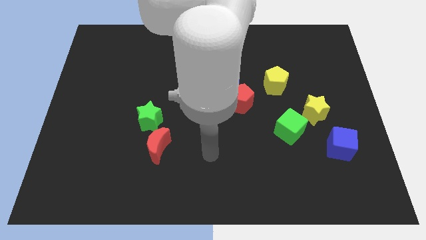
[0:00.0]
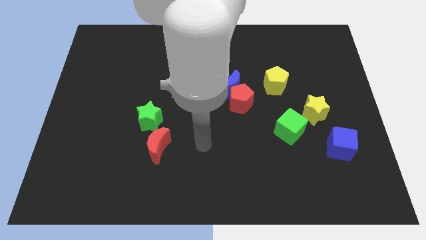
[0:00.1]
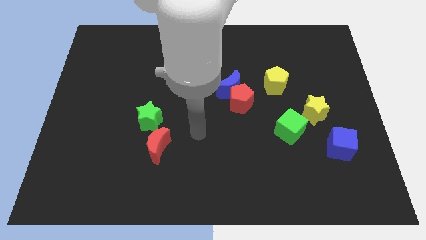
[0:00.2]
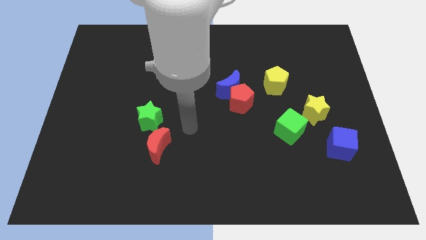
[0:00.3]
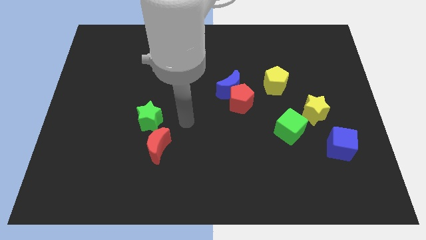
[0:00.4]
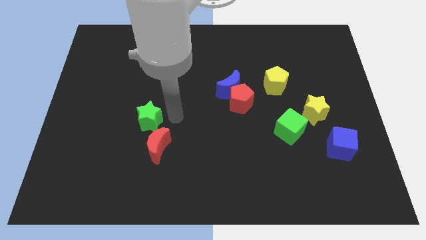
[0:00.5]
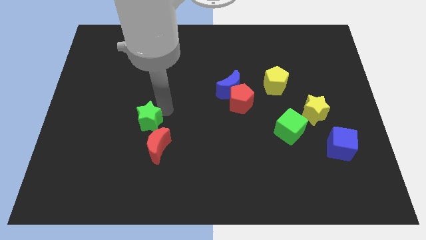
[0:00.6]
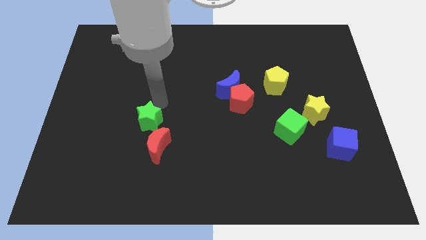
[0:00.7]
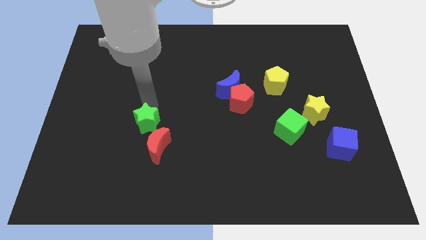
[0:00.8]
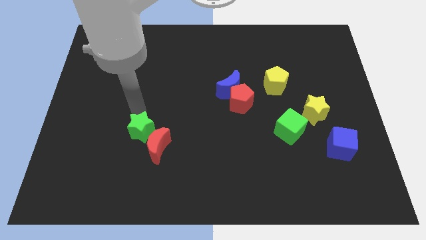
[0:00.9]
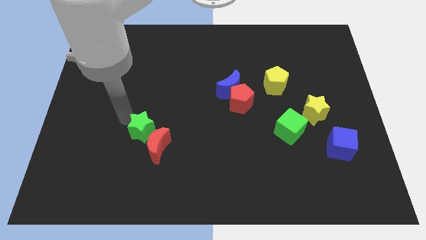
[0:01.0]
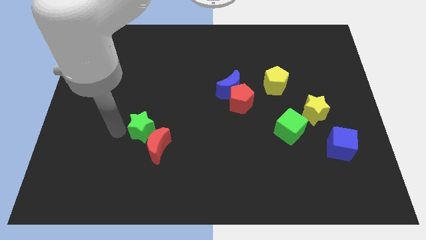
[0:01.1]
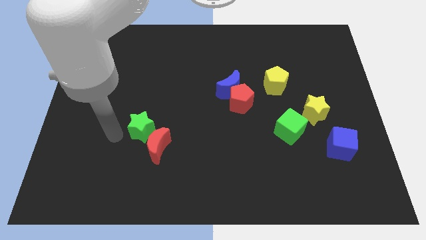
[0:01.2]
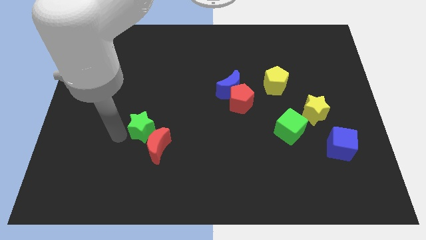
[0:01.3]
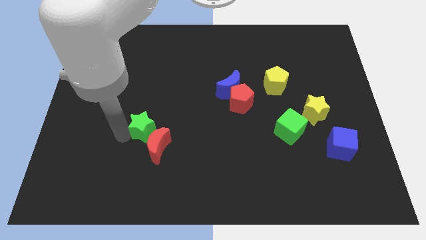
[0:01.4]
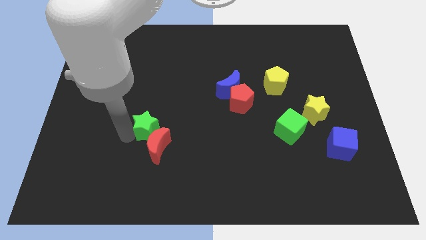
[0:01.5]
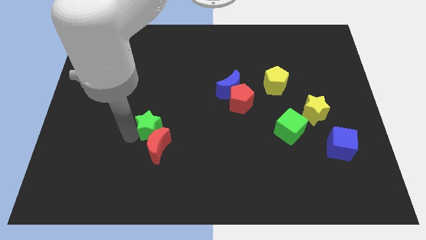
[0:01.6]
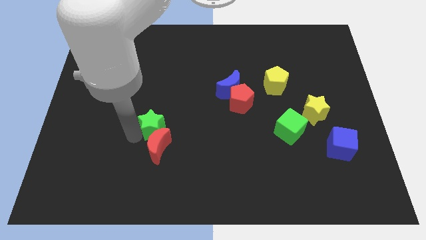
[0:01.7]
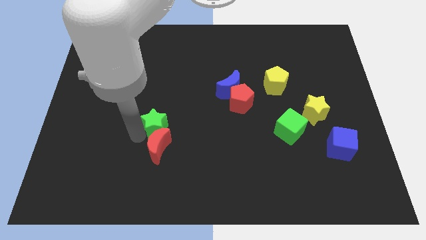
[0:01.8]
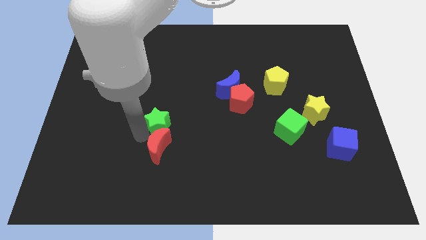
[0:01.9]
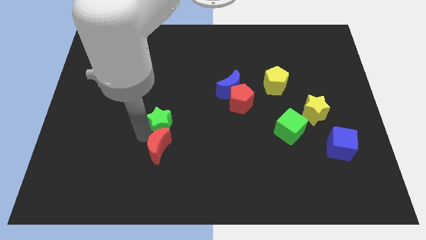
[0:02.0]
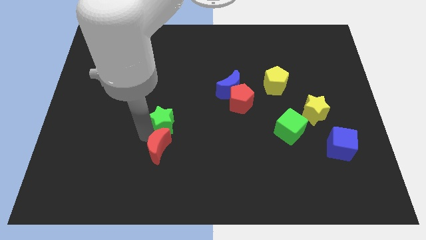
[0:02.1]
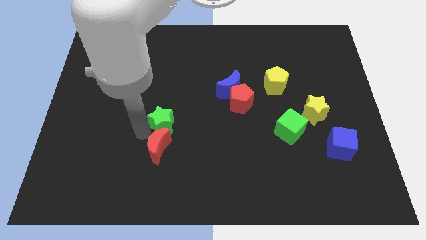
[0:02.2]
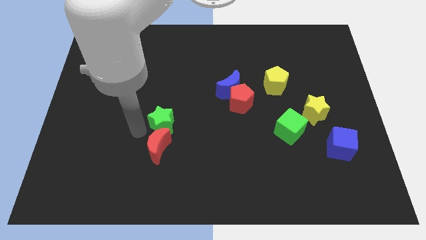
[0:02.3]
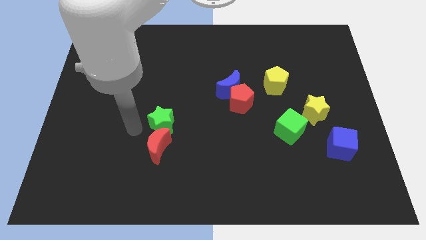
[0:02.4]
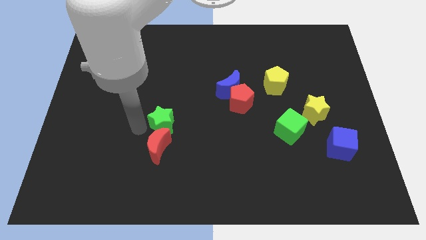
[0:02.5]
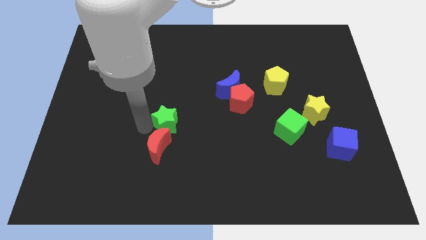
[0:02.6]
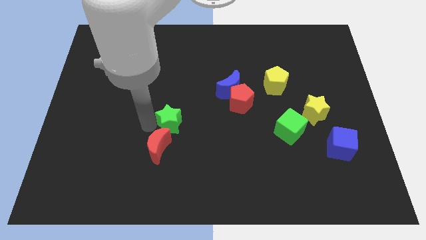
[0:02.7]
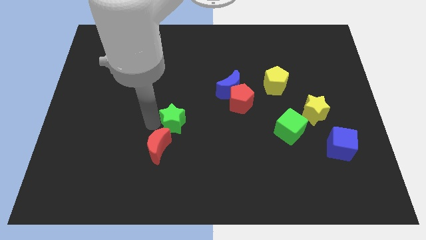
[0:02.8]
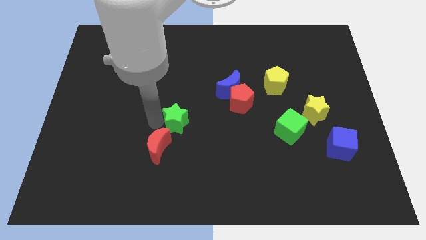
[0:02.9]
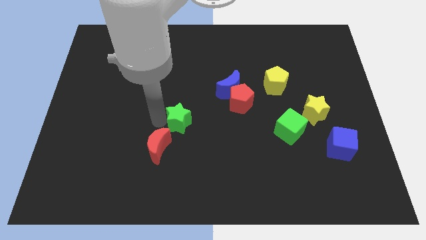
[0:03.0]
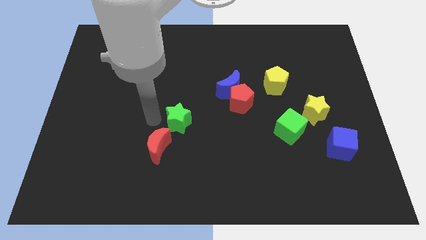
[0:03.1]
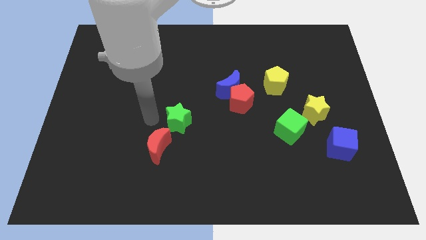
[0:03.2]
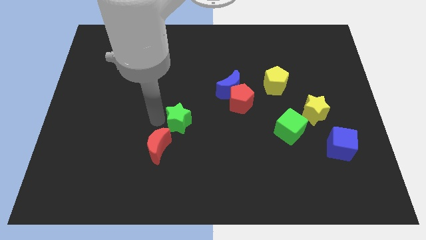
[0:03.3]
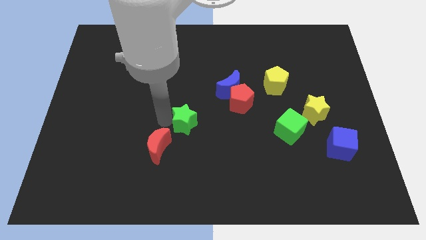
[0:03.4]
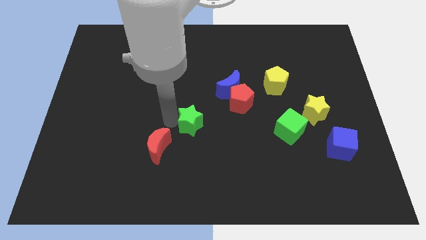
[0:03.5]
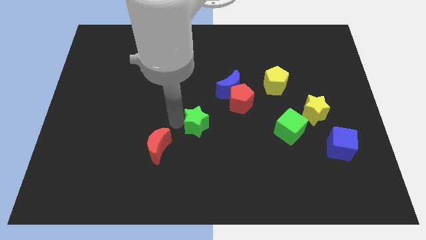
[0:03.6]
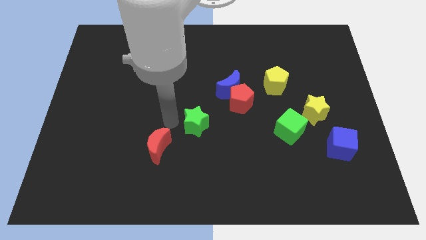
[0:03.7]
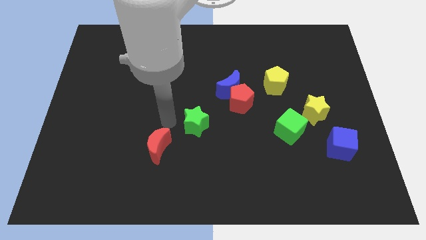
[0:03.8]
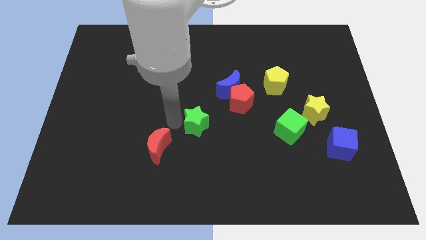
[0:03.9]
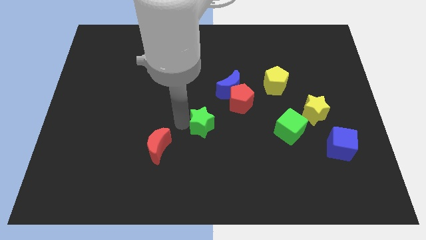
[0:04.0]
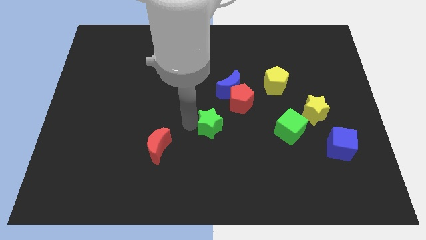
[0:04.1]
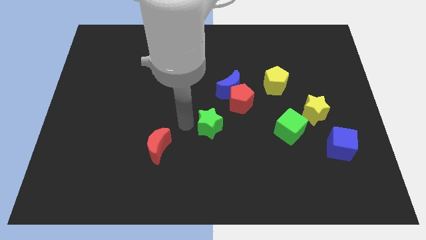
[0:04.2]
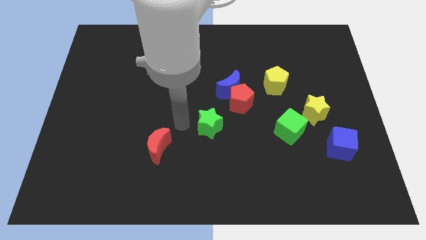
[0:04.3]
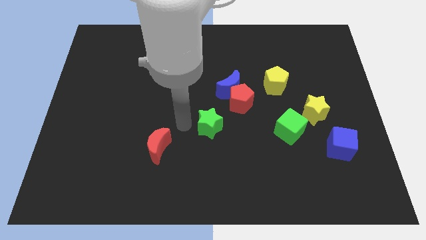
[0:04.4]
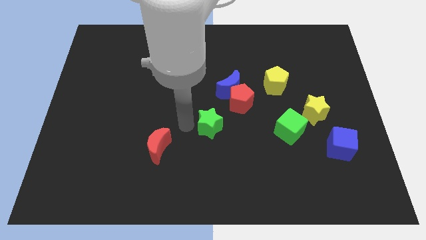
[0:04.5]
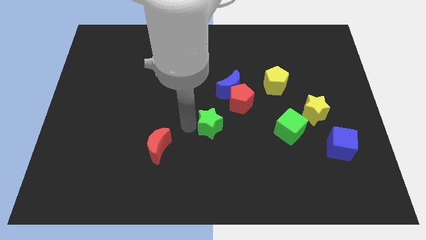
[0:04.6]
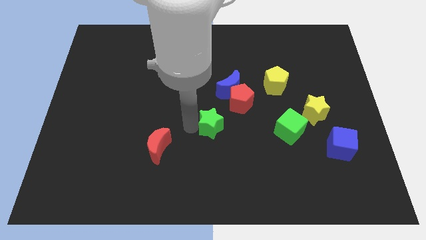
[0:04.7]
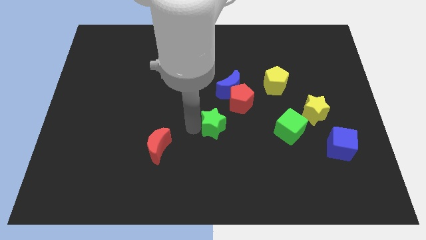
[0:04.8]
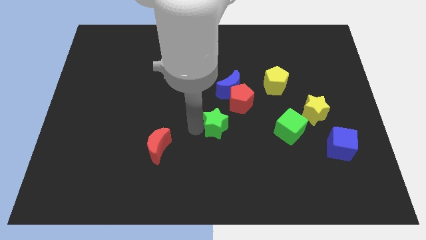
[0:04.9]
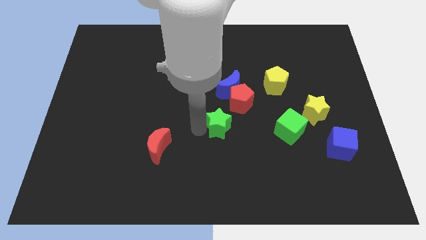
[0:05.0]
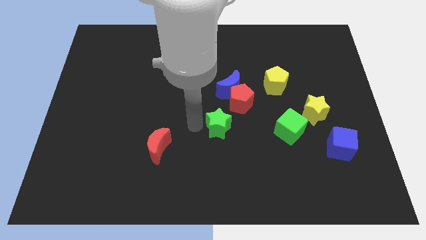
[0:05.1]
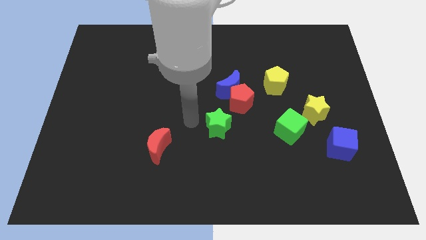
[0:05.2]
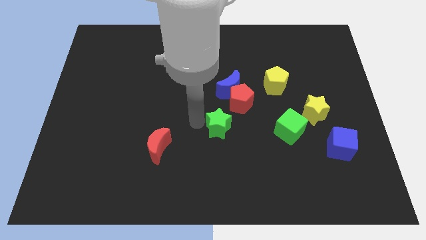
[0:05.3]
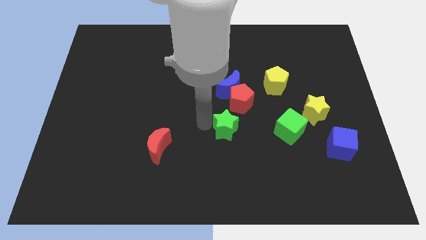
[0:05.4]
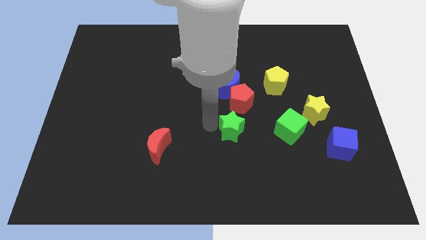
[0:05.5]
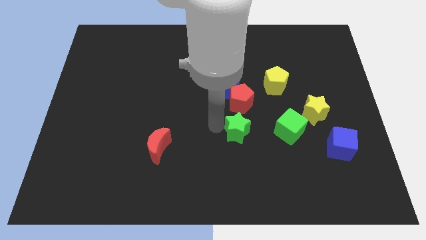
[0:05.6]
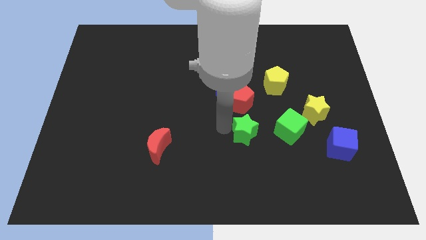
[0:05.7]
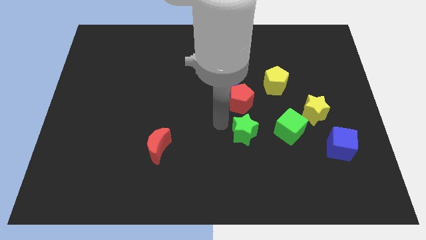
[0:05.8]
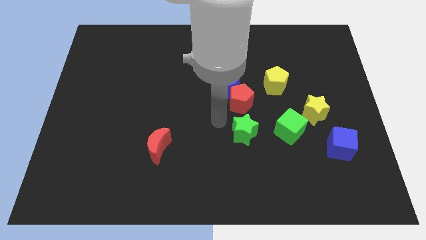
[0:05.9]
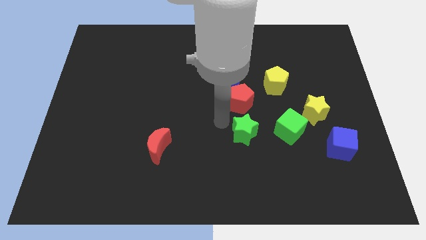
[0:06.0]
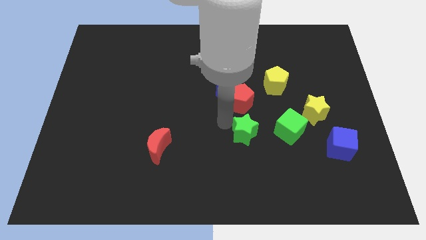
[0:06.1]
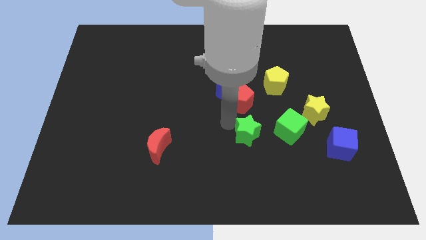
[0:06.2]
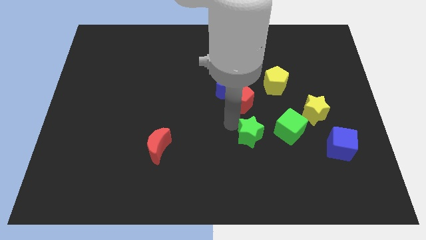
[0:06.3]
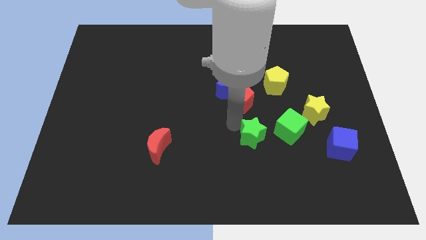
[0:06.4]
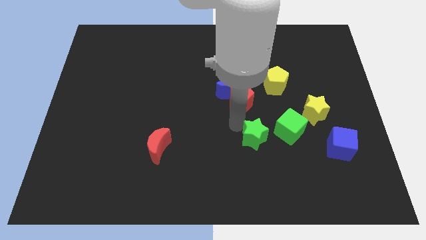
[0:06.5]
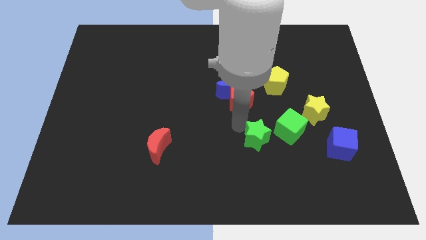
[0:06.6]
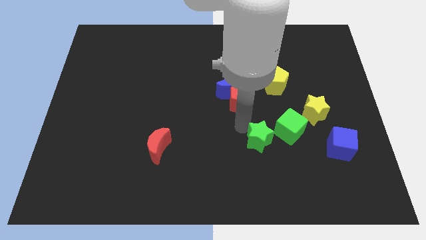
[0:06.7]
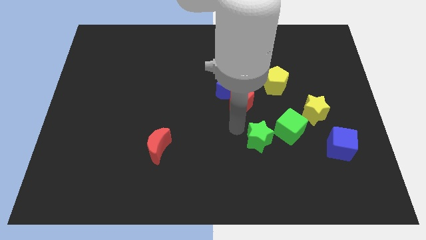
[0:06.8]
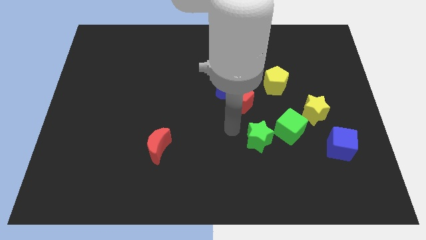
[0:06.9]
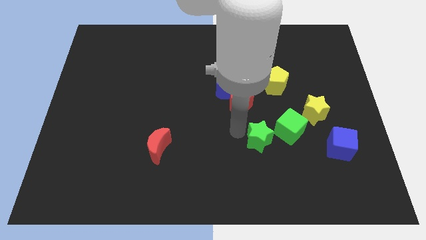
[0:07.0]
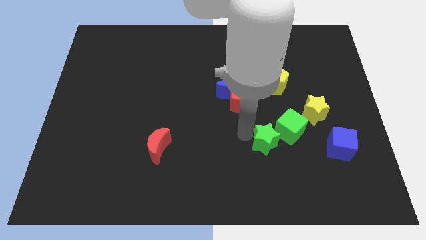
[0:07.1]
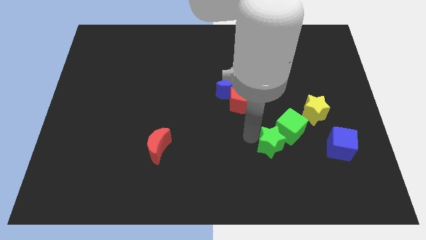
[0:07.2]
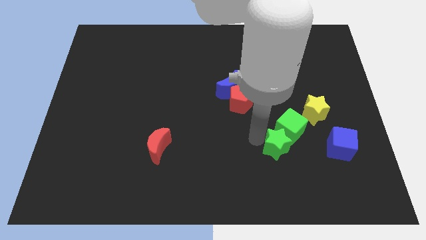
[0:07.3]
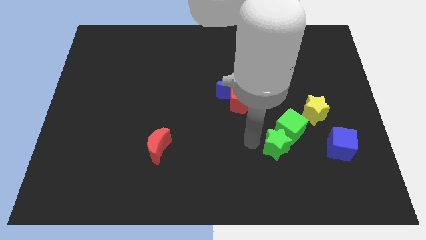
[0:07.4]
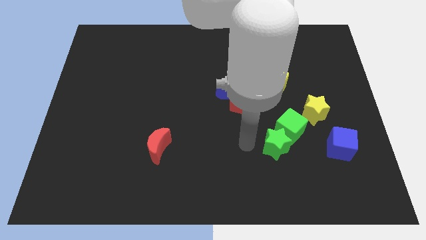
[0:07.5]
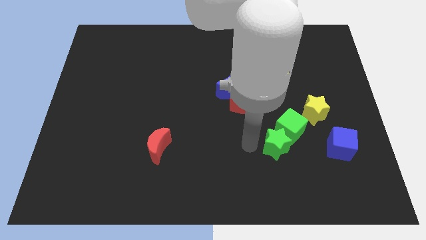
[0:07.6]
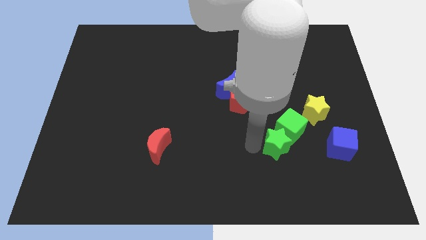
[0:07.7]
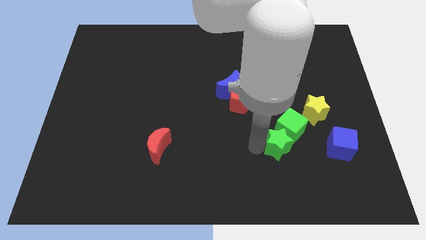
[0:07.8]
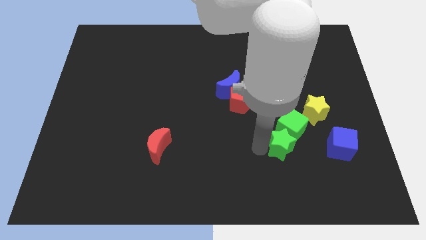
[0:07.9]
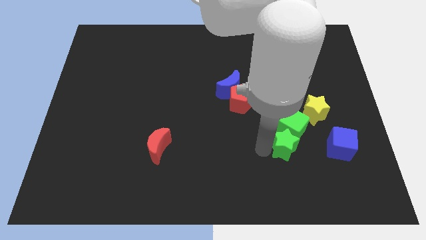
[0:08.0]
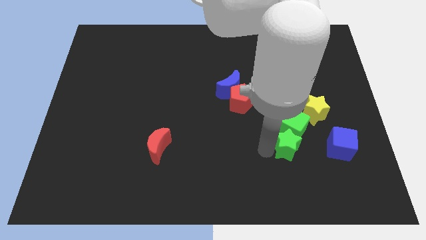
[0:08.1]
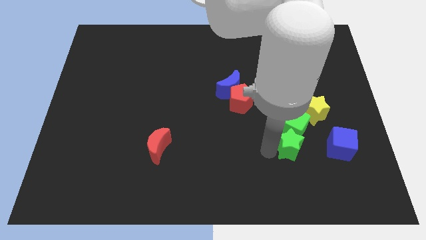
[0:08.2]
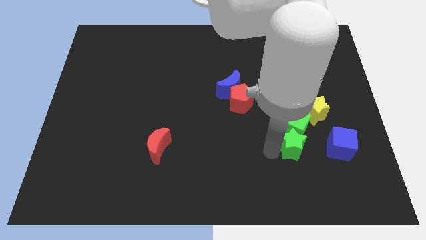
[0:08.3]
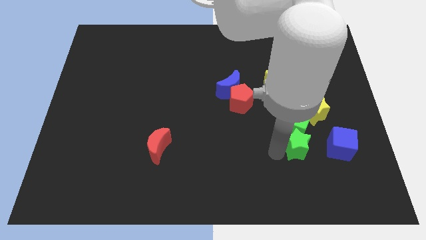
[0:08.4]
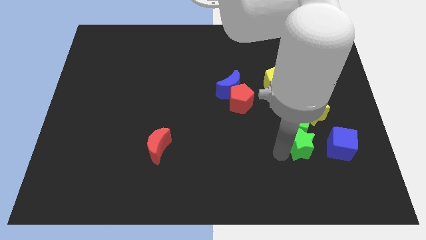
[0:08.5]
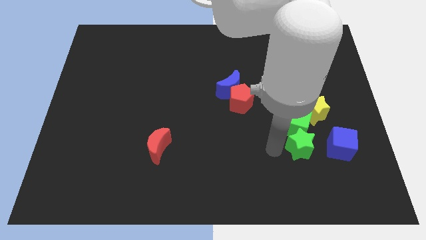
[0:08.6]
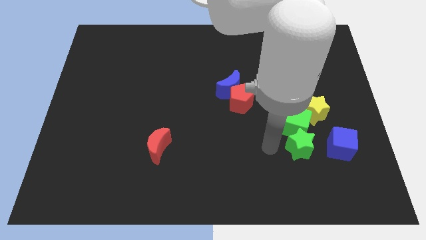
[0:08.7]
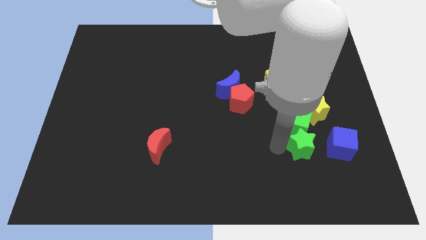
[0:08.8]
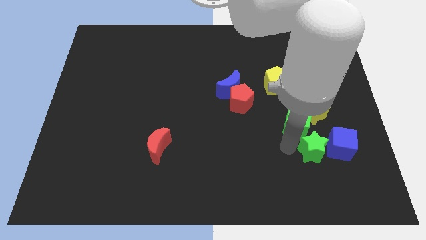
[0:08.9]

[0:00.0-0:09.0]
slide the green star to the blue cube
